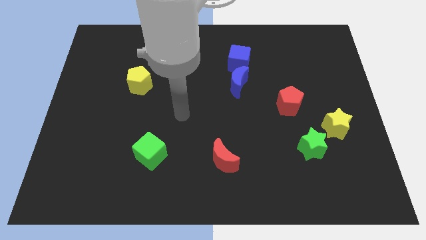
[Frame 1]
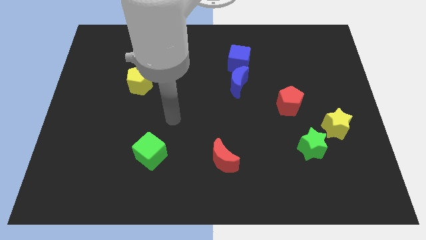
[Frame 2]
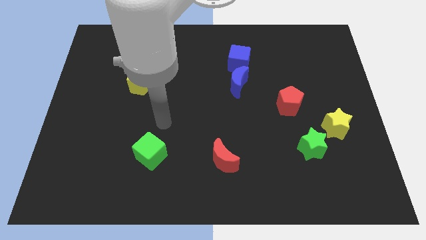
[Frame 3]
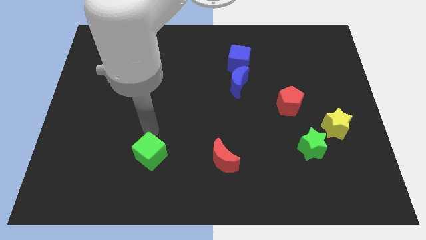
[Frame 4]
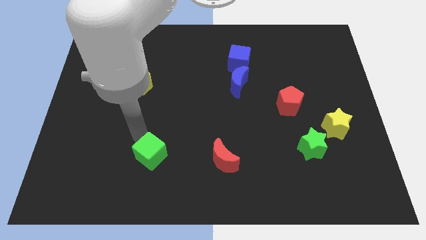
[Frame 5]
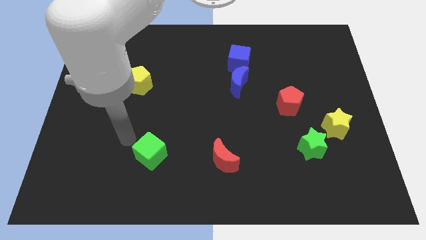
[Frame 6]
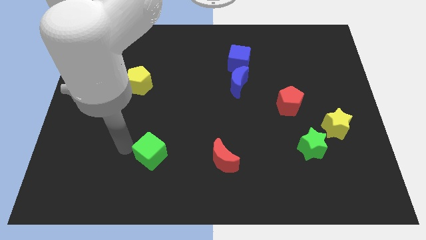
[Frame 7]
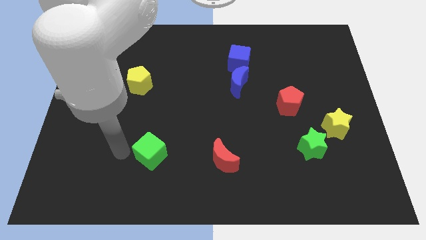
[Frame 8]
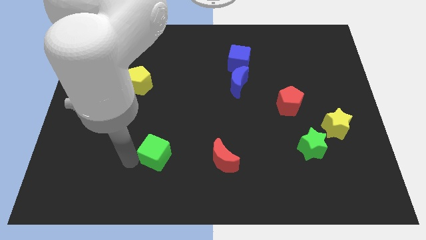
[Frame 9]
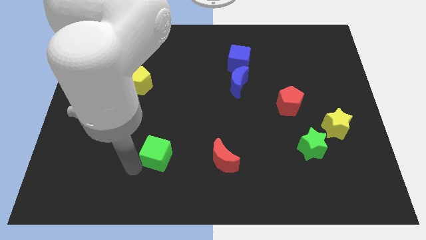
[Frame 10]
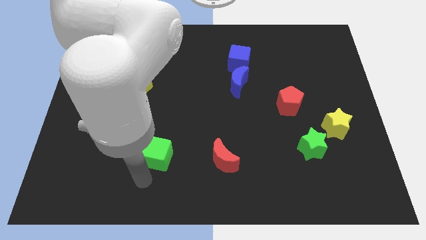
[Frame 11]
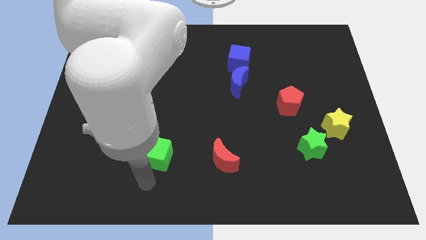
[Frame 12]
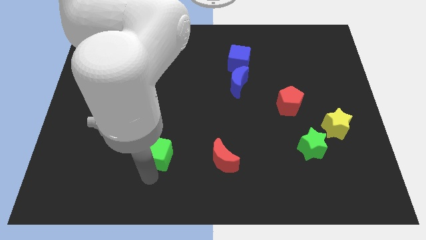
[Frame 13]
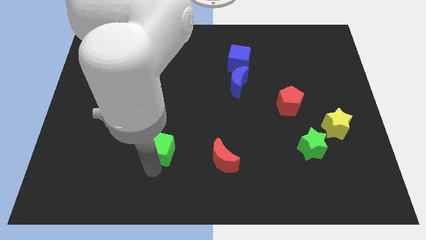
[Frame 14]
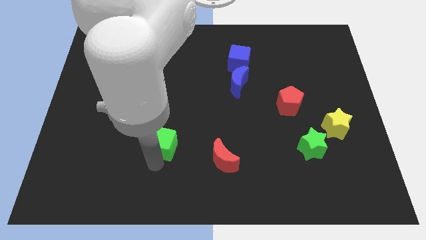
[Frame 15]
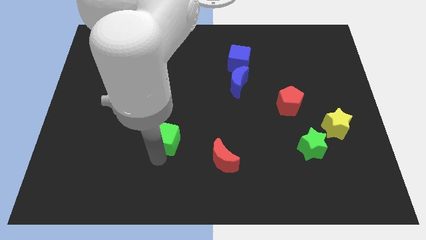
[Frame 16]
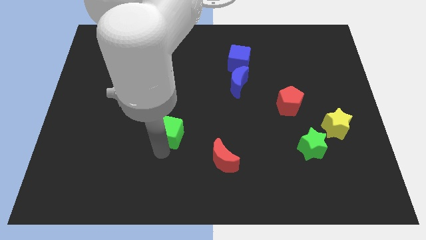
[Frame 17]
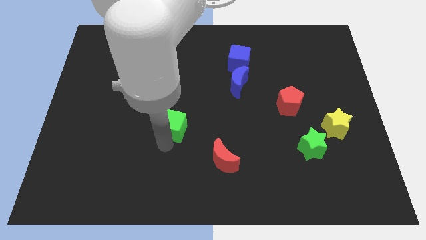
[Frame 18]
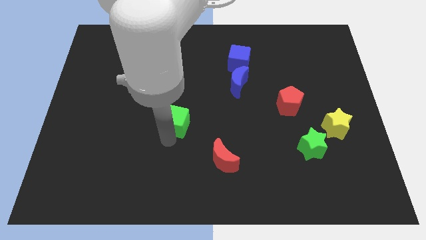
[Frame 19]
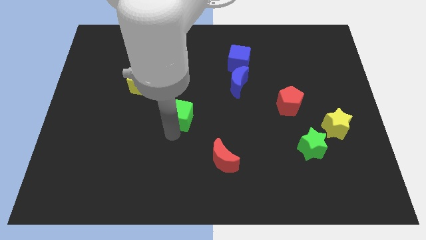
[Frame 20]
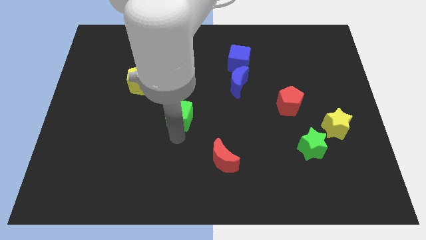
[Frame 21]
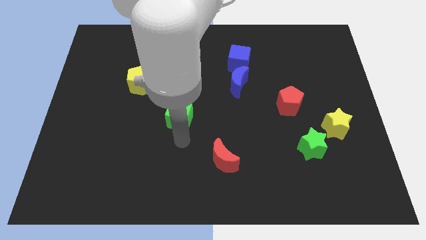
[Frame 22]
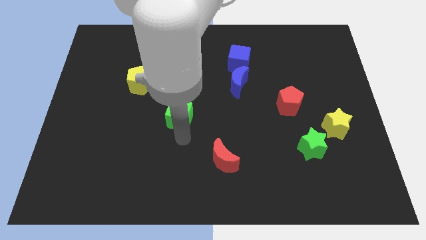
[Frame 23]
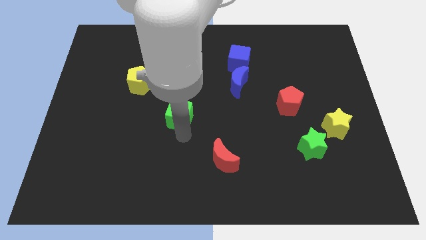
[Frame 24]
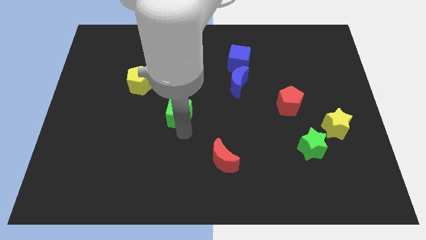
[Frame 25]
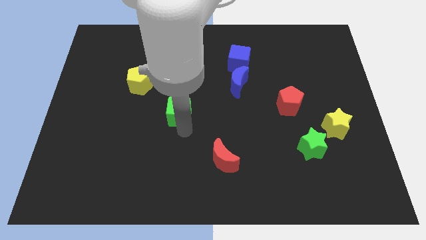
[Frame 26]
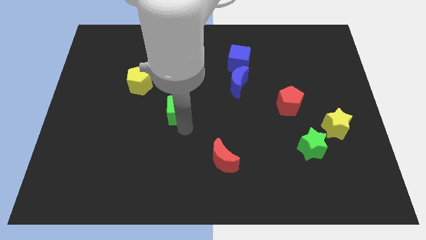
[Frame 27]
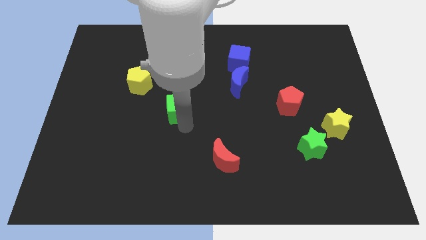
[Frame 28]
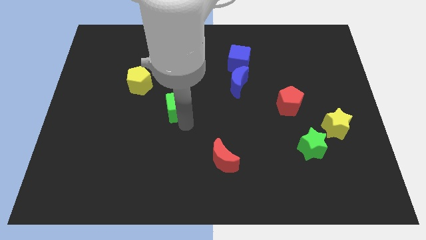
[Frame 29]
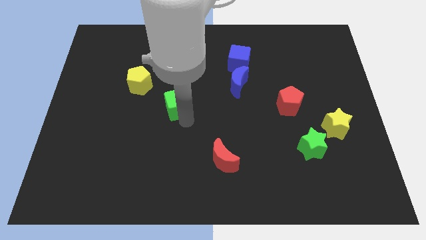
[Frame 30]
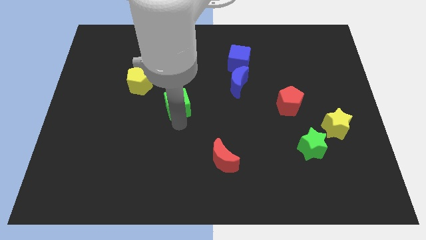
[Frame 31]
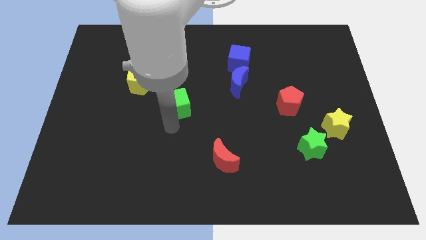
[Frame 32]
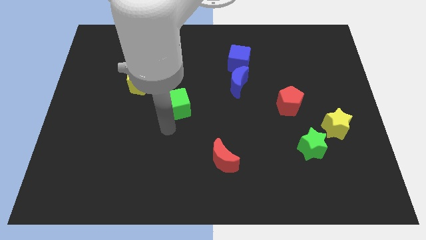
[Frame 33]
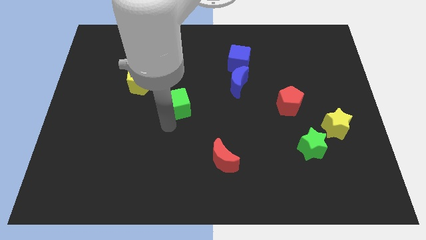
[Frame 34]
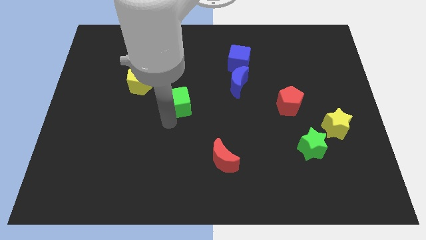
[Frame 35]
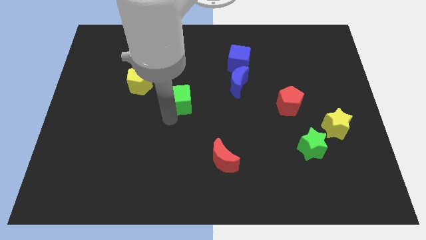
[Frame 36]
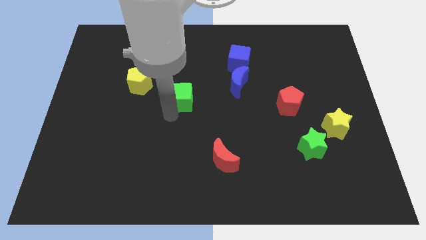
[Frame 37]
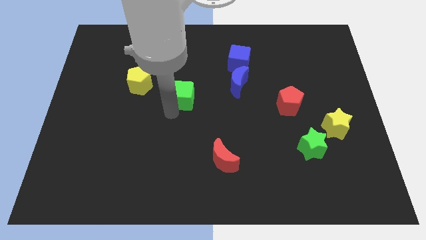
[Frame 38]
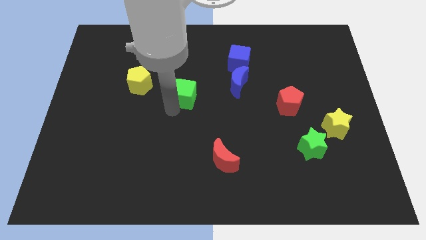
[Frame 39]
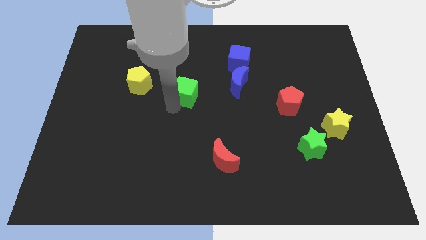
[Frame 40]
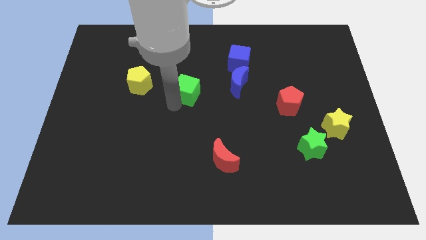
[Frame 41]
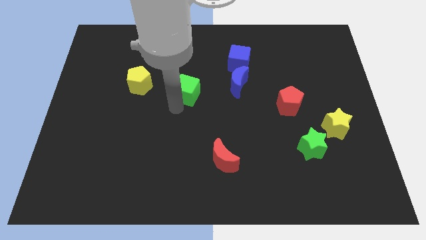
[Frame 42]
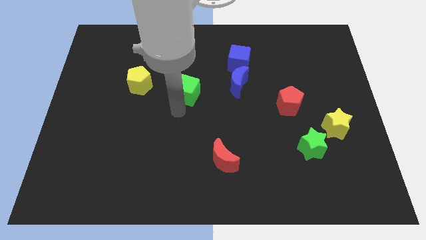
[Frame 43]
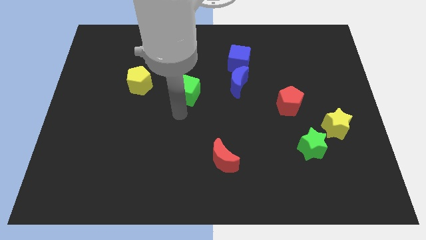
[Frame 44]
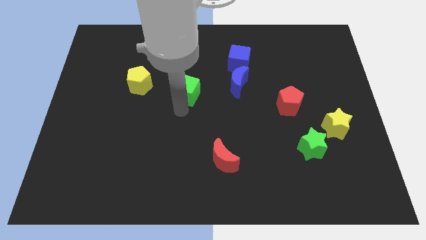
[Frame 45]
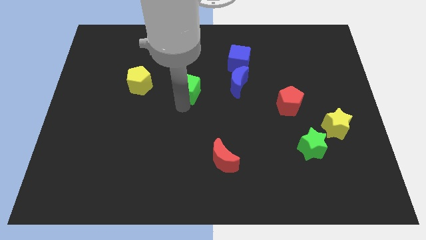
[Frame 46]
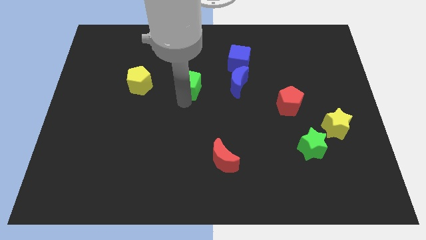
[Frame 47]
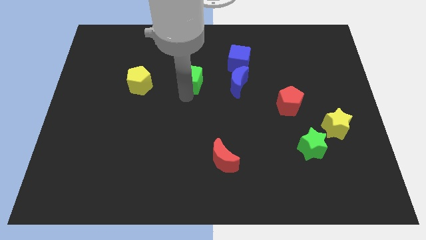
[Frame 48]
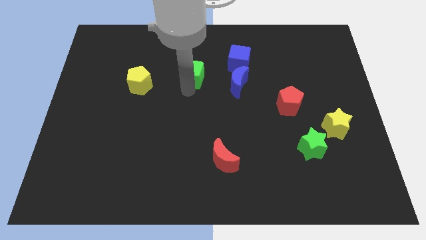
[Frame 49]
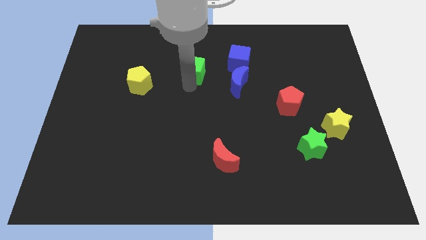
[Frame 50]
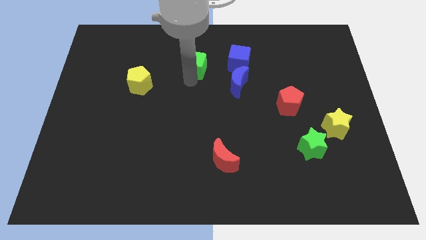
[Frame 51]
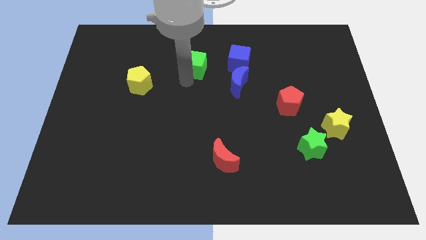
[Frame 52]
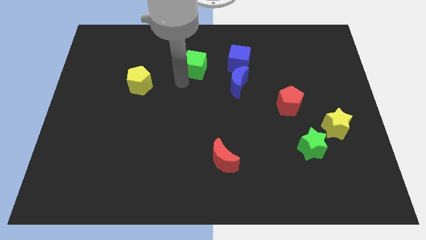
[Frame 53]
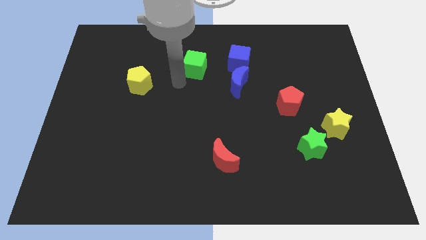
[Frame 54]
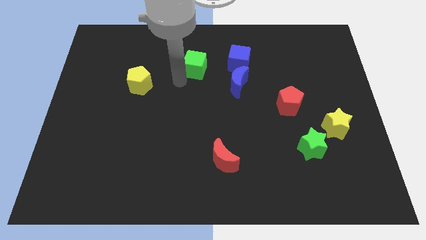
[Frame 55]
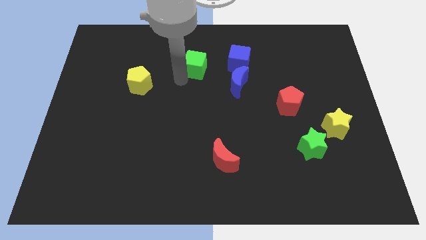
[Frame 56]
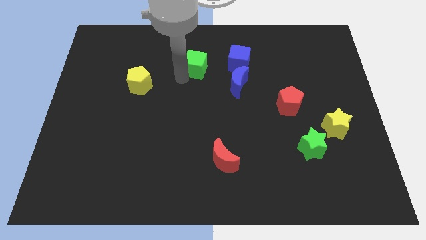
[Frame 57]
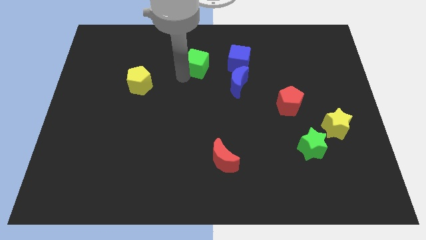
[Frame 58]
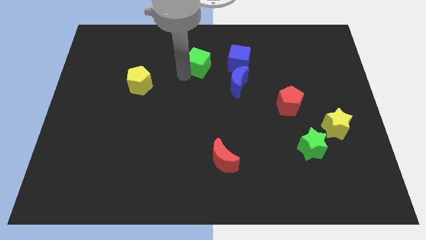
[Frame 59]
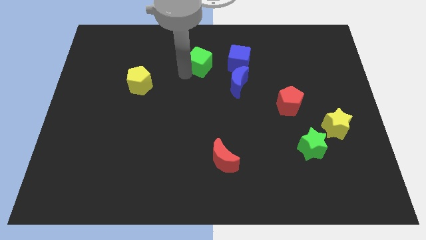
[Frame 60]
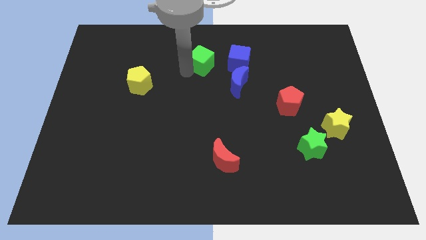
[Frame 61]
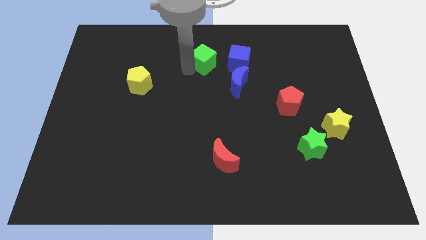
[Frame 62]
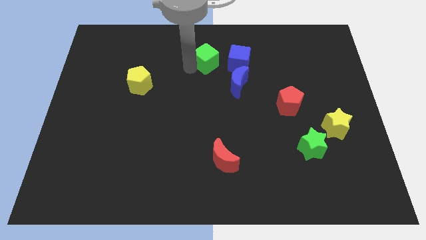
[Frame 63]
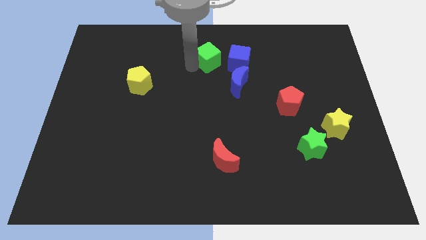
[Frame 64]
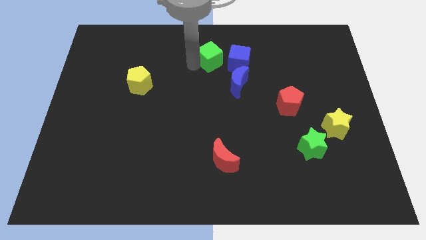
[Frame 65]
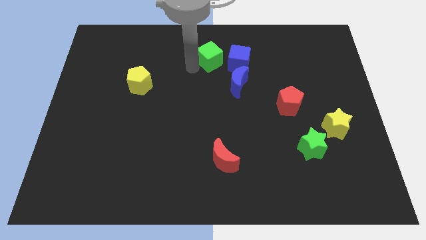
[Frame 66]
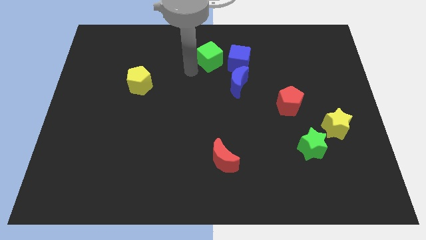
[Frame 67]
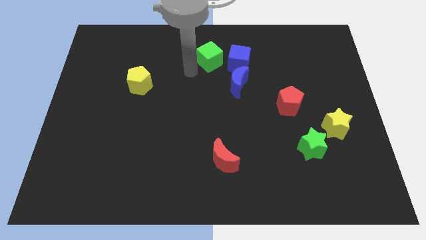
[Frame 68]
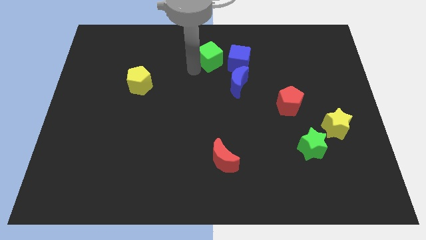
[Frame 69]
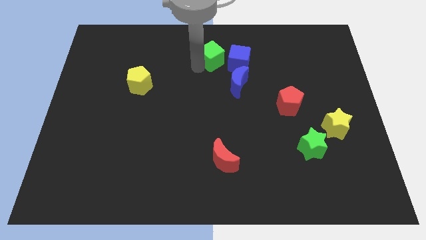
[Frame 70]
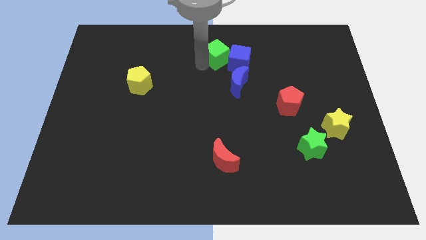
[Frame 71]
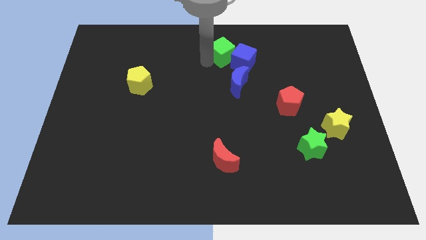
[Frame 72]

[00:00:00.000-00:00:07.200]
slide the green cube above the blue moon
